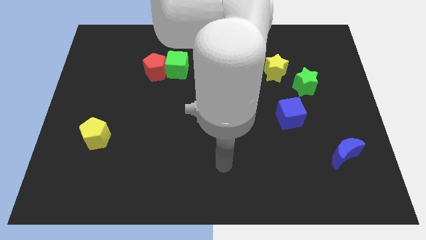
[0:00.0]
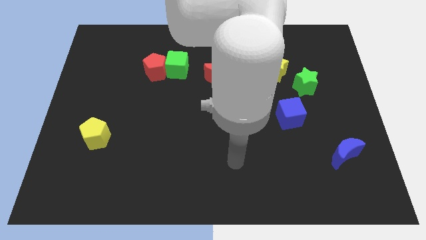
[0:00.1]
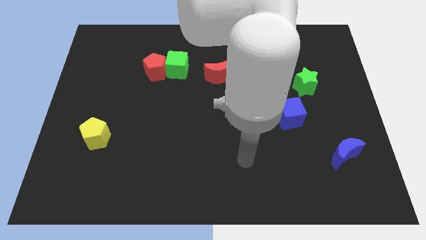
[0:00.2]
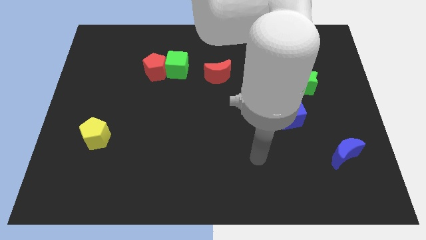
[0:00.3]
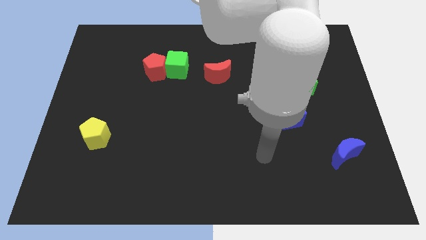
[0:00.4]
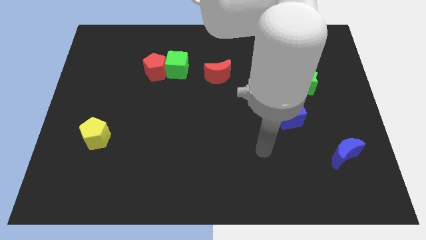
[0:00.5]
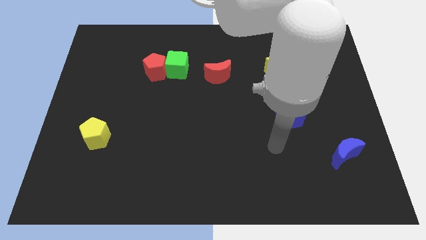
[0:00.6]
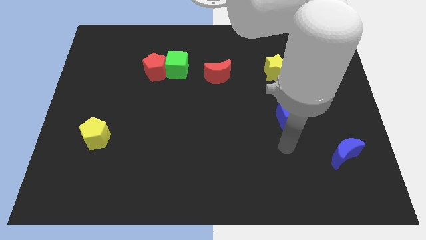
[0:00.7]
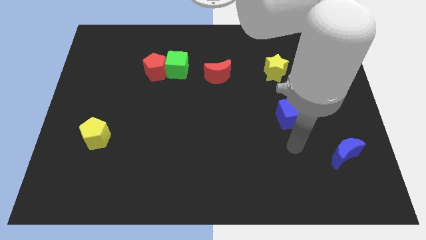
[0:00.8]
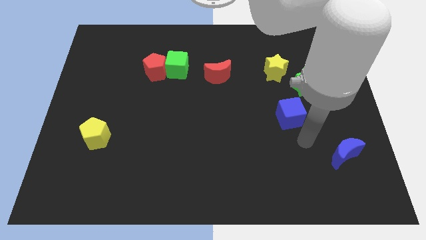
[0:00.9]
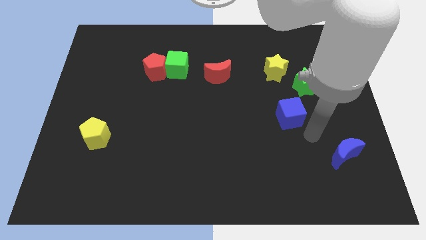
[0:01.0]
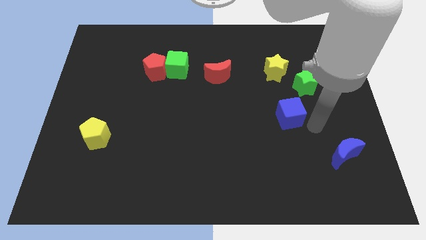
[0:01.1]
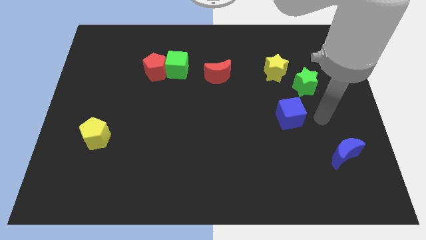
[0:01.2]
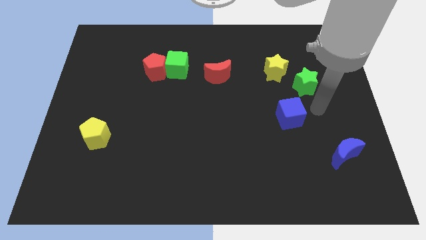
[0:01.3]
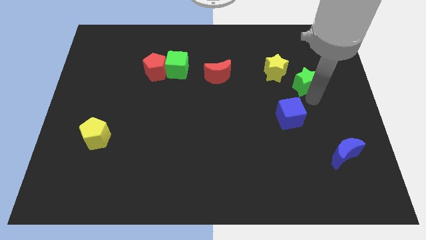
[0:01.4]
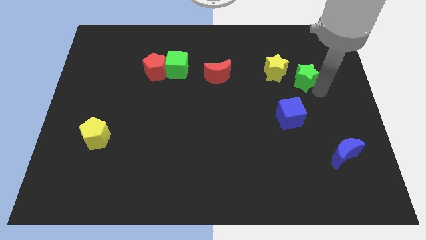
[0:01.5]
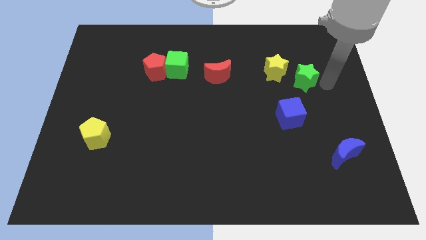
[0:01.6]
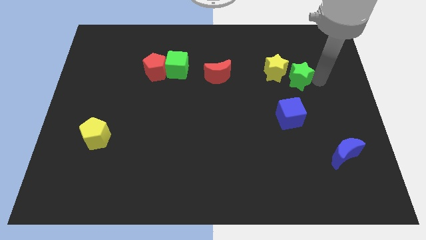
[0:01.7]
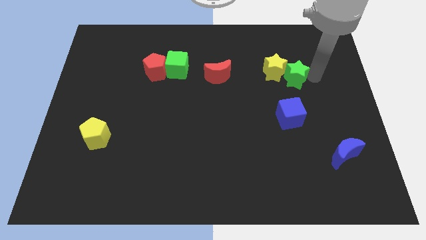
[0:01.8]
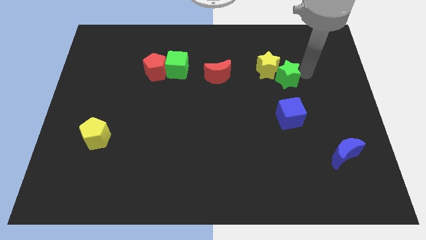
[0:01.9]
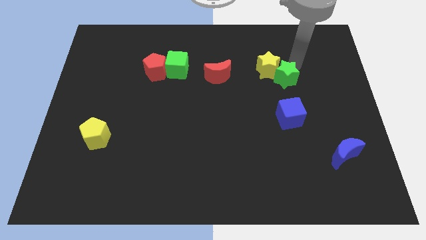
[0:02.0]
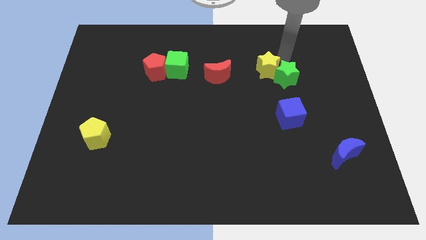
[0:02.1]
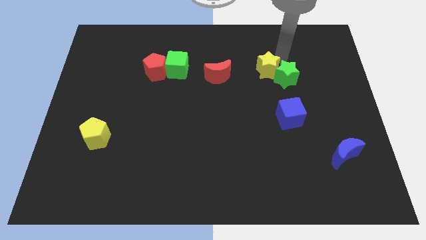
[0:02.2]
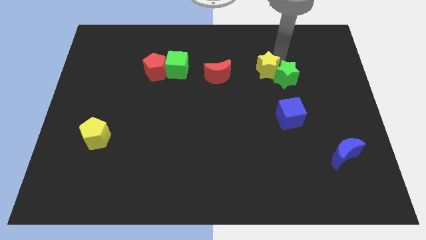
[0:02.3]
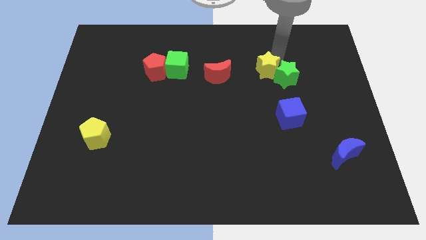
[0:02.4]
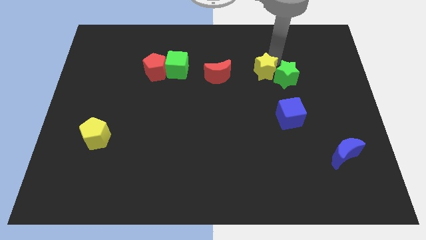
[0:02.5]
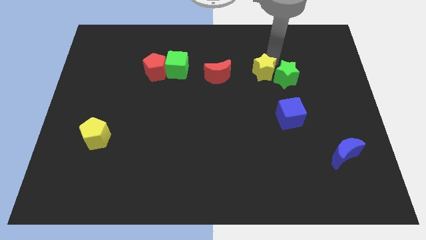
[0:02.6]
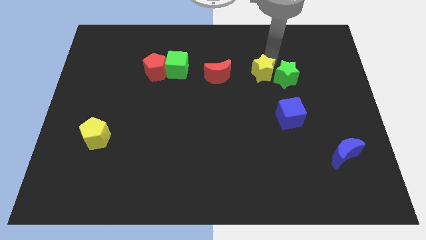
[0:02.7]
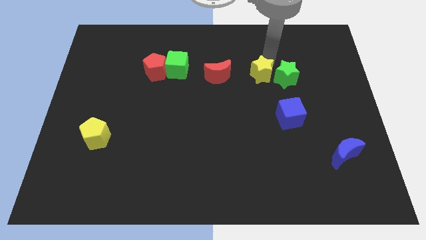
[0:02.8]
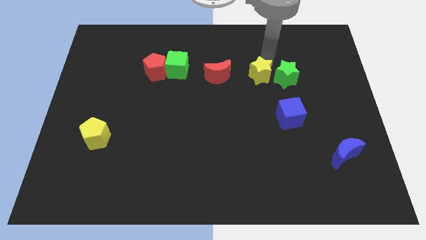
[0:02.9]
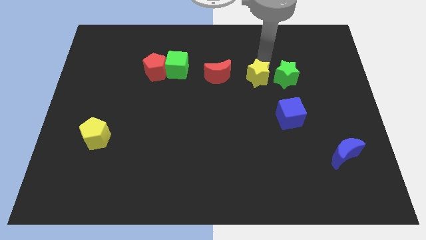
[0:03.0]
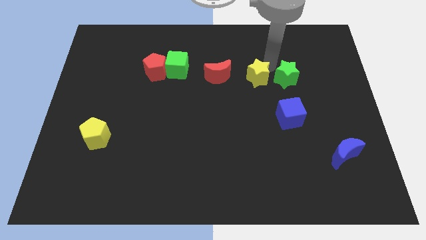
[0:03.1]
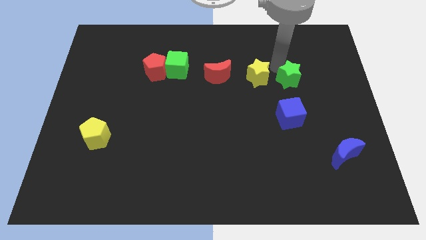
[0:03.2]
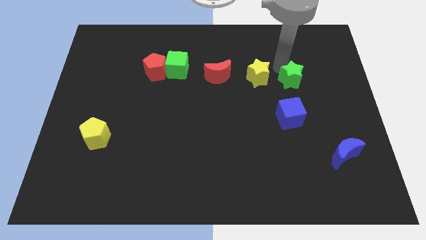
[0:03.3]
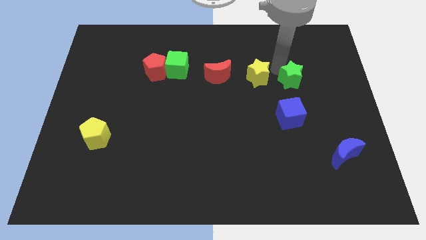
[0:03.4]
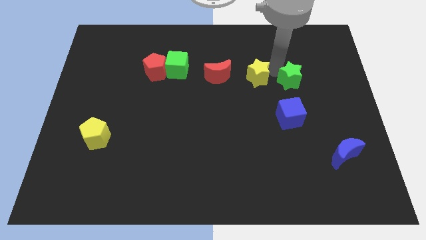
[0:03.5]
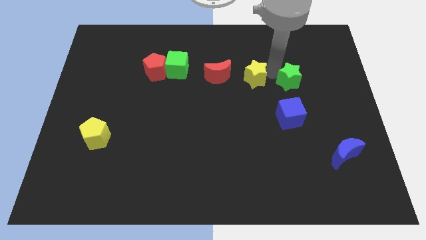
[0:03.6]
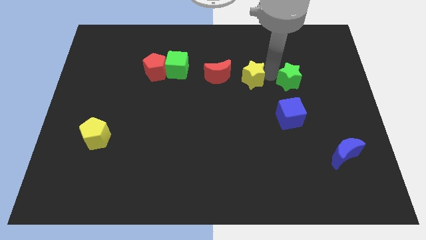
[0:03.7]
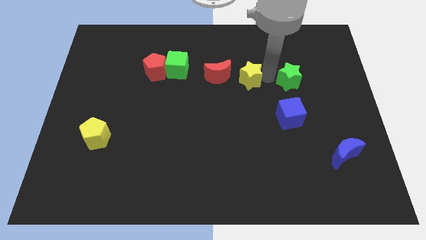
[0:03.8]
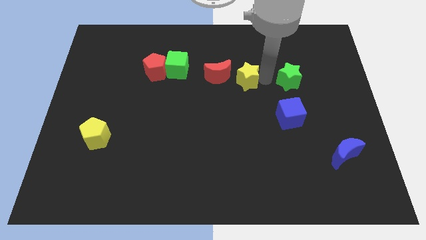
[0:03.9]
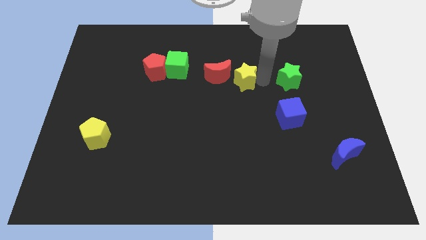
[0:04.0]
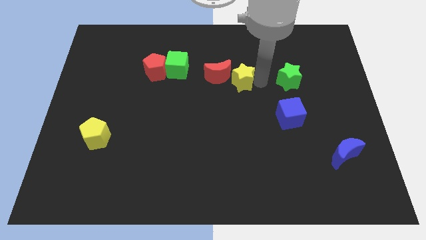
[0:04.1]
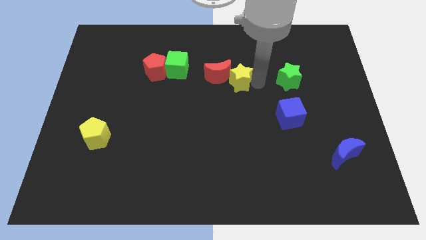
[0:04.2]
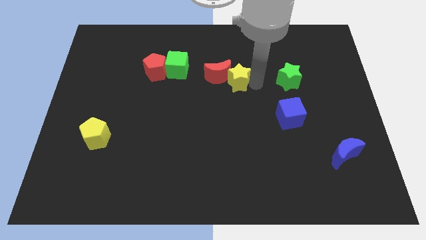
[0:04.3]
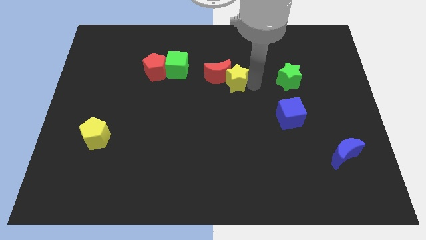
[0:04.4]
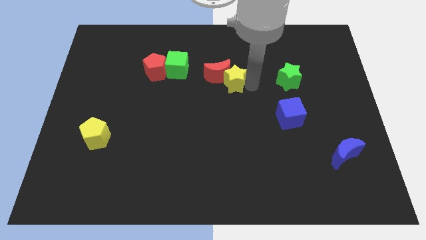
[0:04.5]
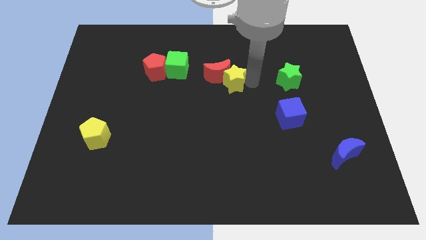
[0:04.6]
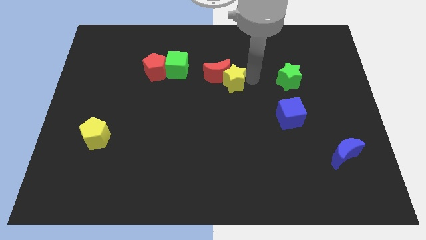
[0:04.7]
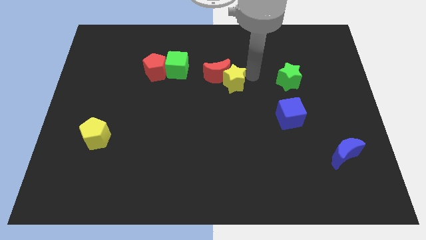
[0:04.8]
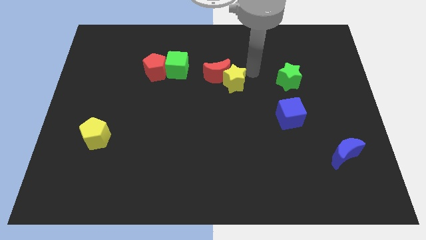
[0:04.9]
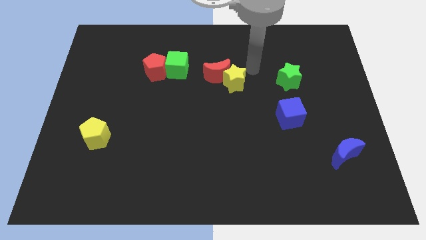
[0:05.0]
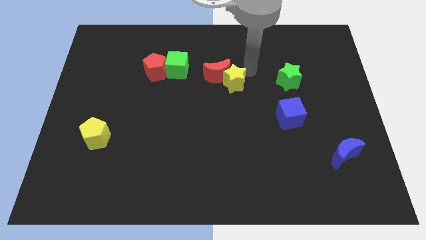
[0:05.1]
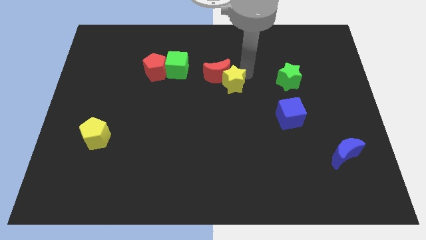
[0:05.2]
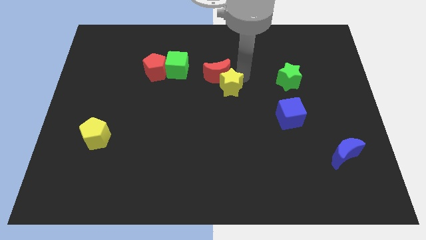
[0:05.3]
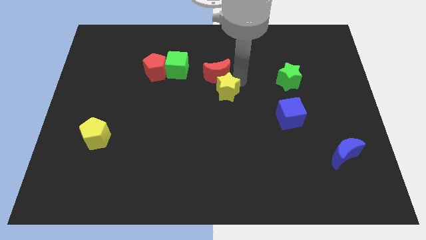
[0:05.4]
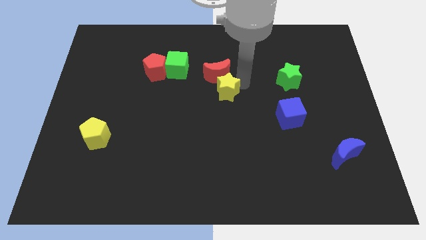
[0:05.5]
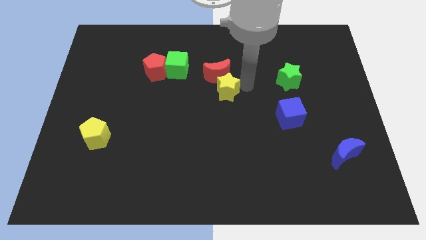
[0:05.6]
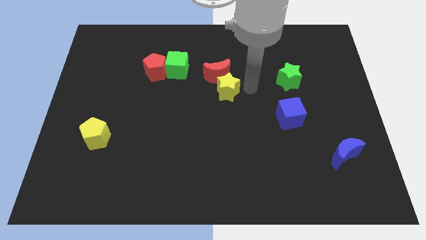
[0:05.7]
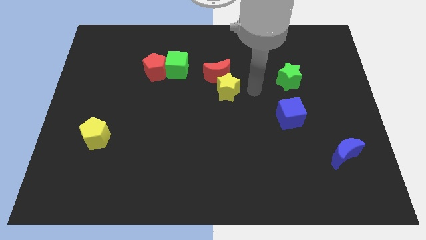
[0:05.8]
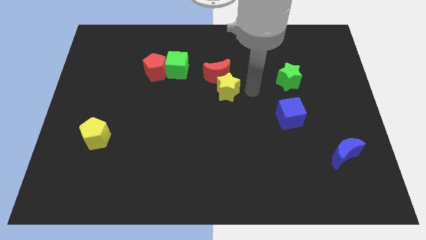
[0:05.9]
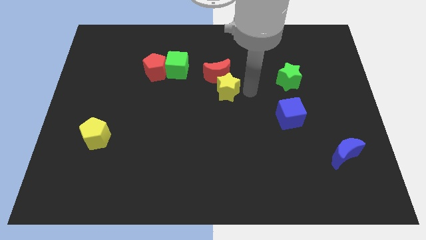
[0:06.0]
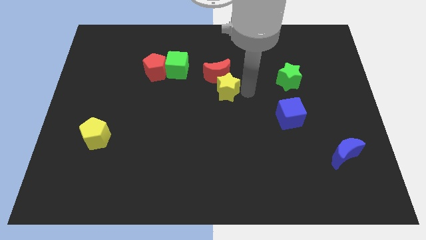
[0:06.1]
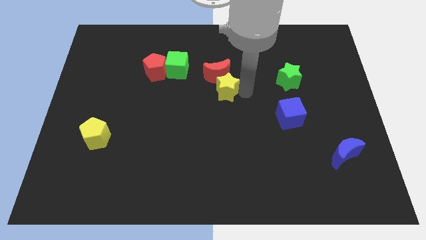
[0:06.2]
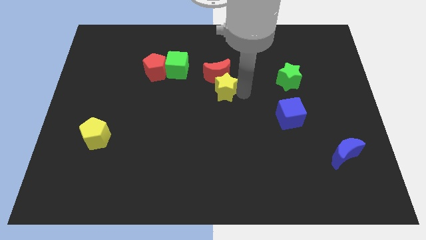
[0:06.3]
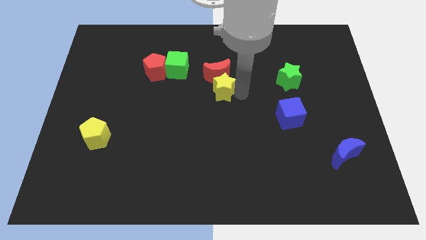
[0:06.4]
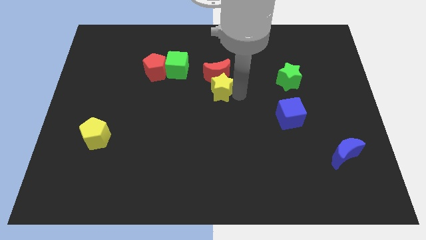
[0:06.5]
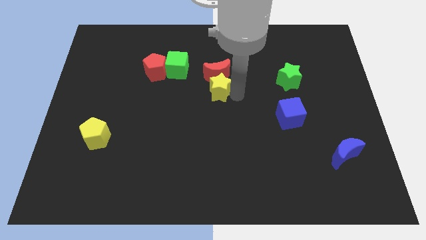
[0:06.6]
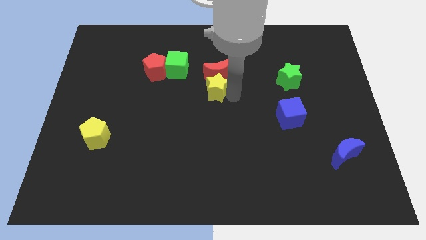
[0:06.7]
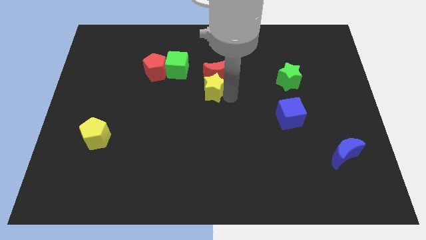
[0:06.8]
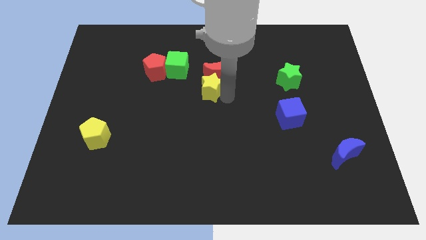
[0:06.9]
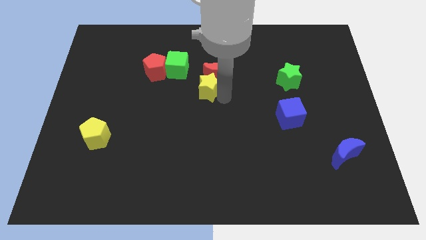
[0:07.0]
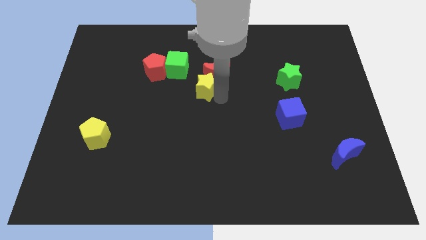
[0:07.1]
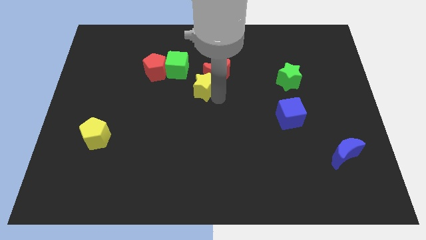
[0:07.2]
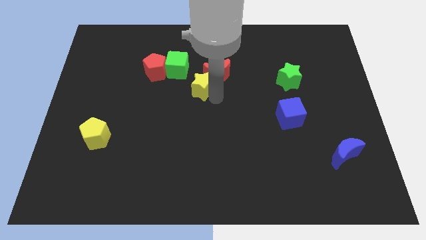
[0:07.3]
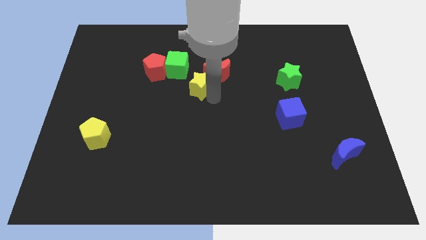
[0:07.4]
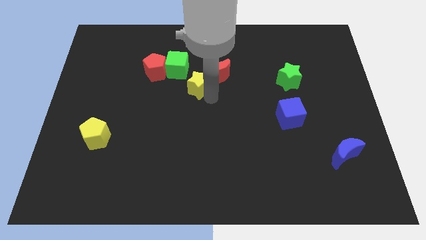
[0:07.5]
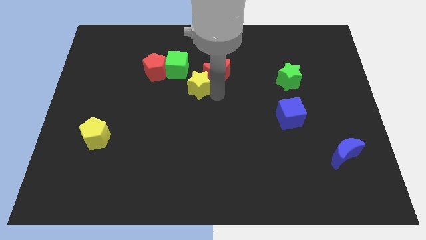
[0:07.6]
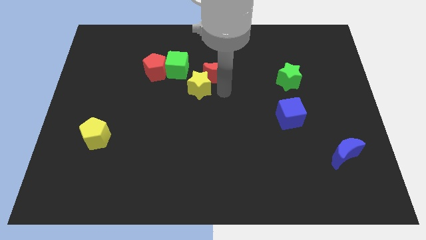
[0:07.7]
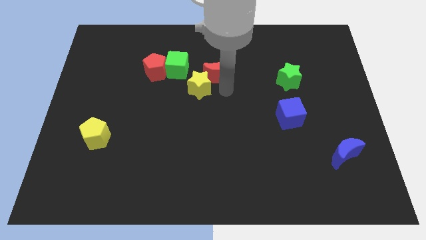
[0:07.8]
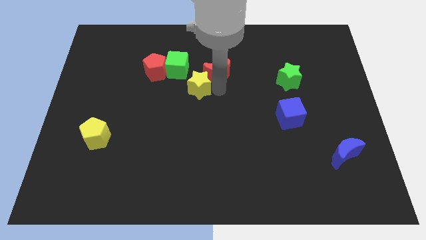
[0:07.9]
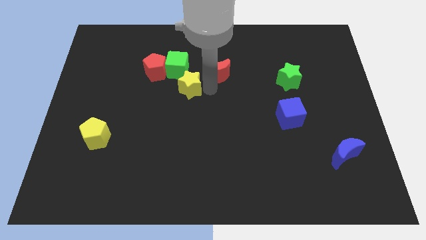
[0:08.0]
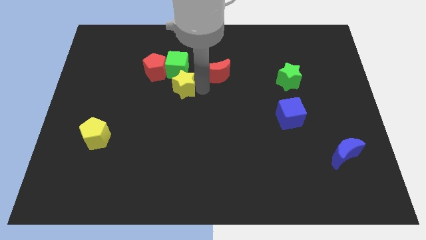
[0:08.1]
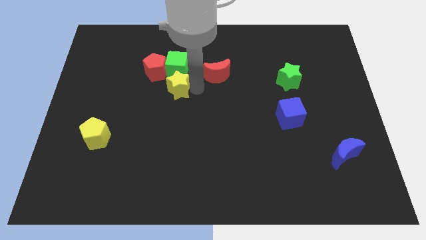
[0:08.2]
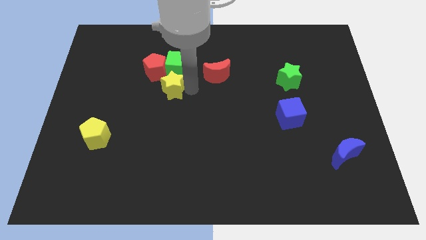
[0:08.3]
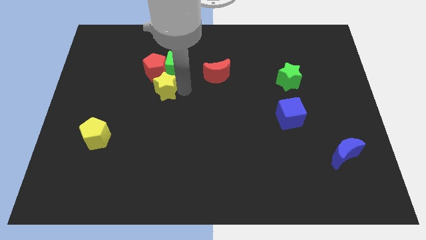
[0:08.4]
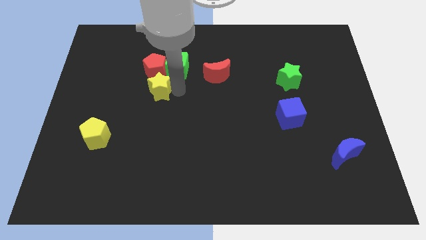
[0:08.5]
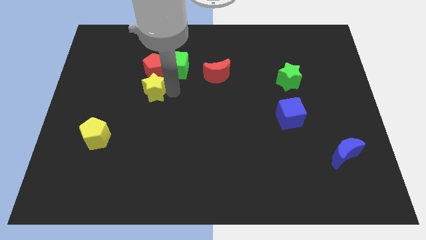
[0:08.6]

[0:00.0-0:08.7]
move the yellow star to the bottom left of the red pentagon
